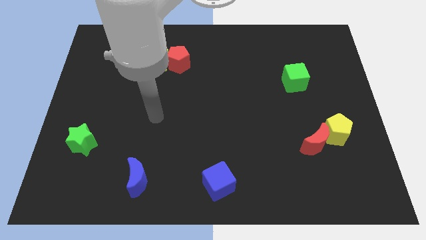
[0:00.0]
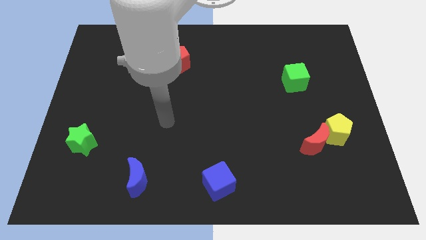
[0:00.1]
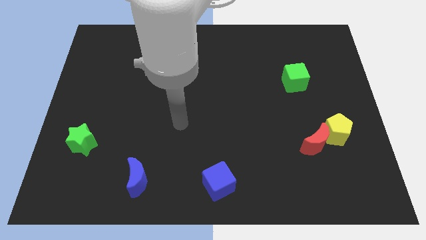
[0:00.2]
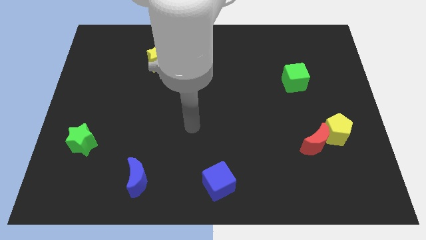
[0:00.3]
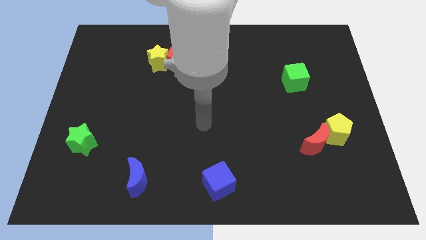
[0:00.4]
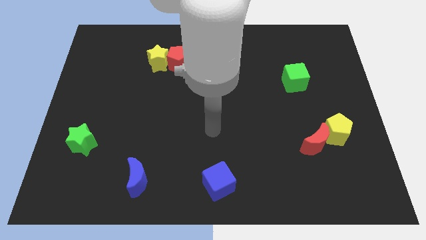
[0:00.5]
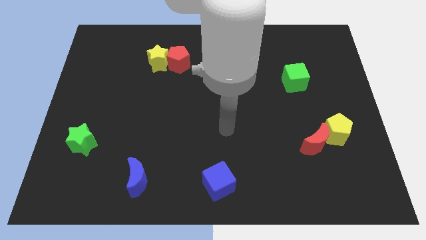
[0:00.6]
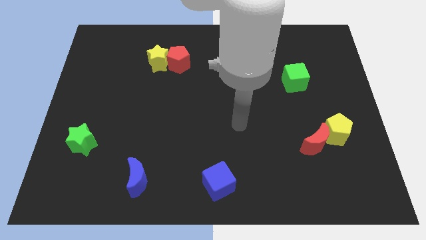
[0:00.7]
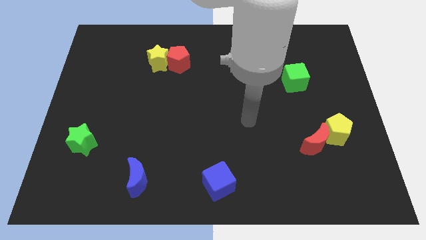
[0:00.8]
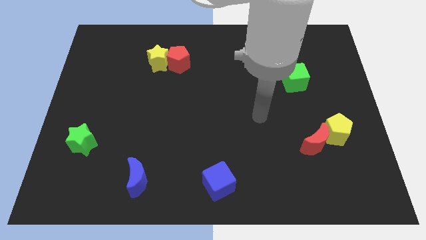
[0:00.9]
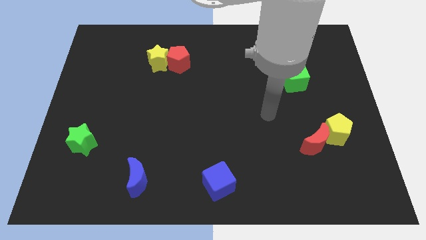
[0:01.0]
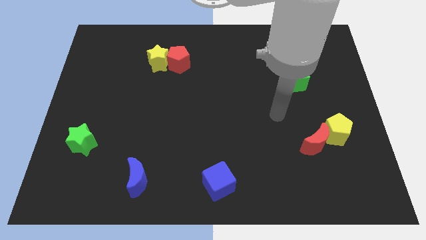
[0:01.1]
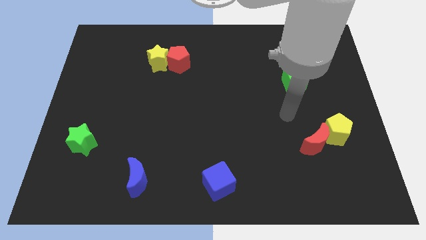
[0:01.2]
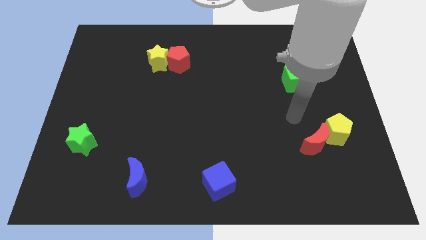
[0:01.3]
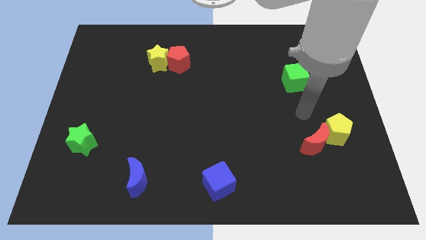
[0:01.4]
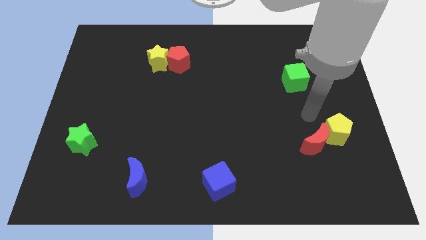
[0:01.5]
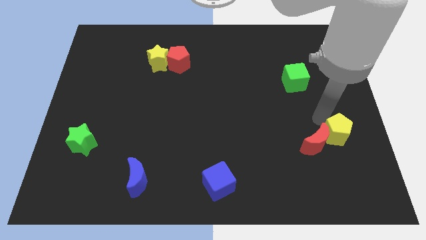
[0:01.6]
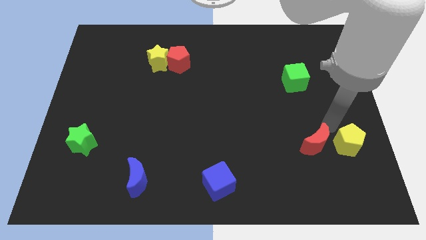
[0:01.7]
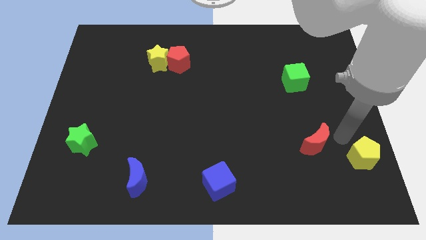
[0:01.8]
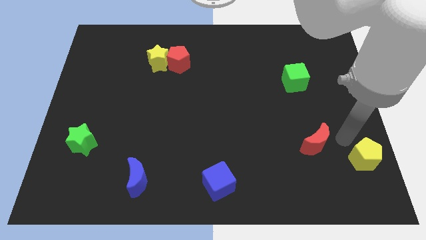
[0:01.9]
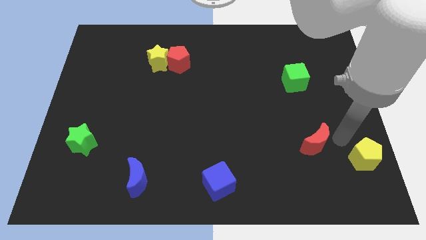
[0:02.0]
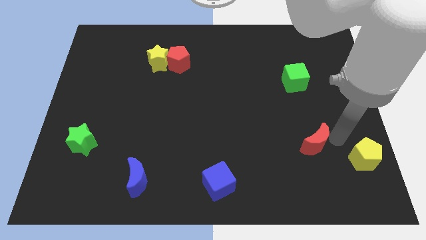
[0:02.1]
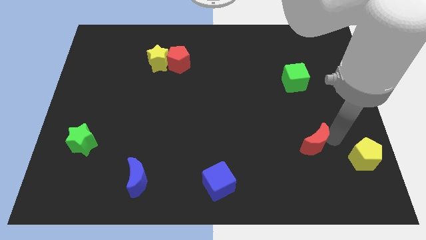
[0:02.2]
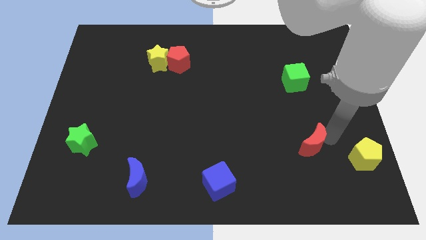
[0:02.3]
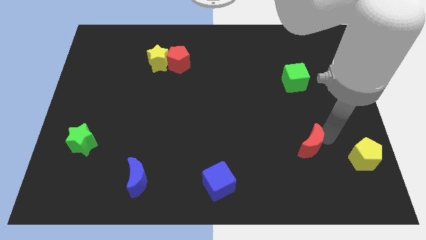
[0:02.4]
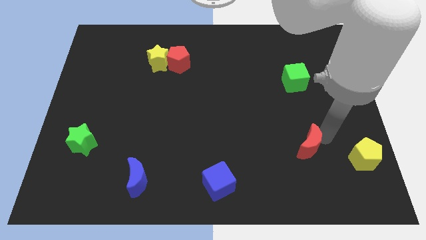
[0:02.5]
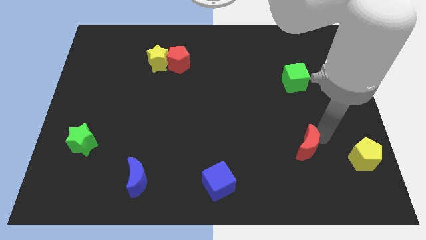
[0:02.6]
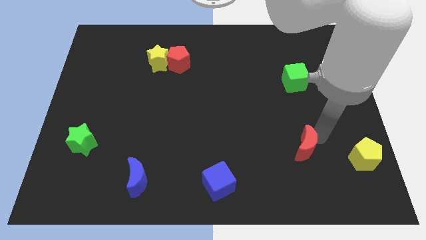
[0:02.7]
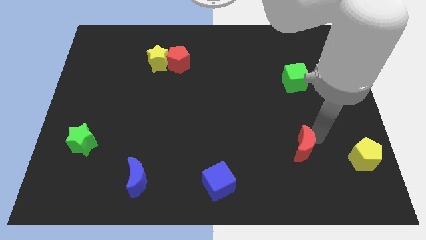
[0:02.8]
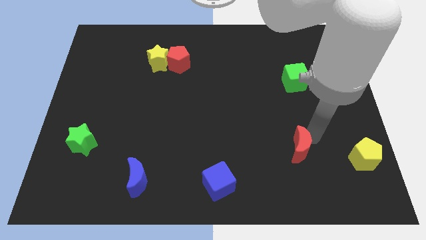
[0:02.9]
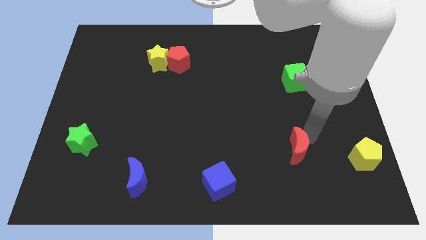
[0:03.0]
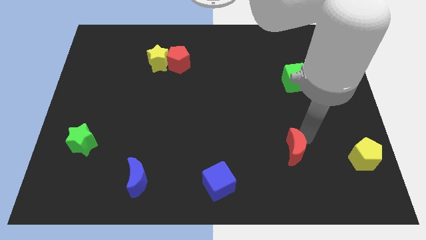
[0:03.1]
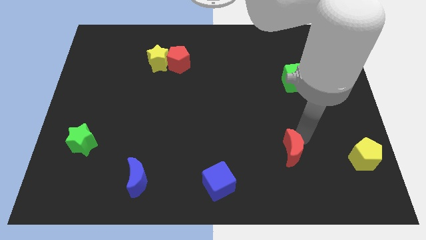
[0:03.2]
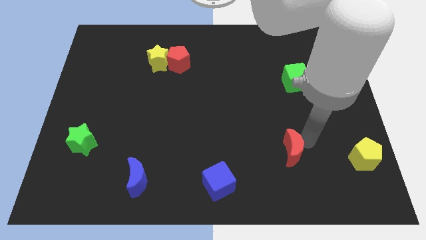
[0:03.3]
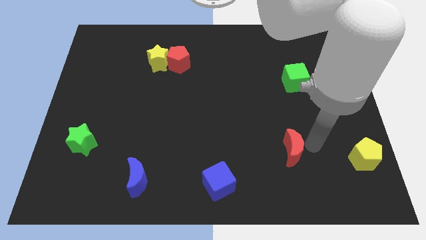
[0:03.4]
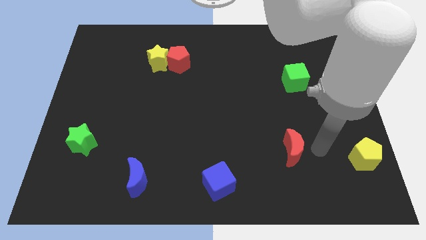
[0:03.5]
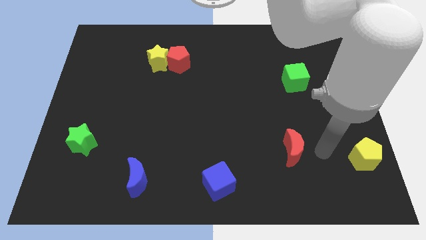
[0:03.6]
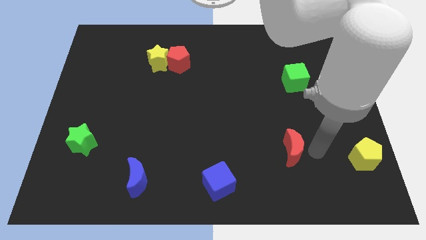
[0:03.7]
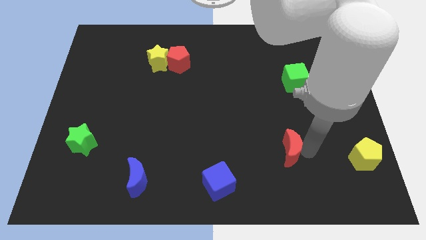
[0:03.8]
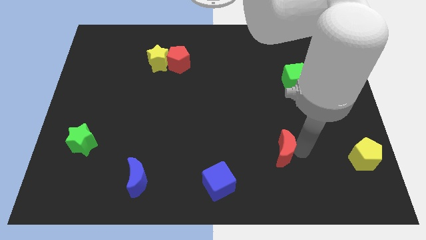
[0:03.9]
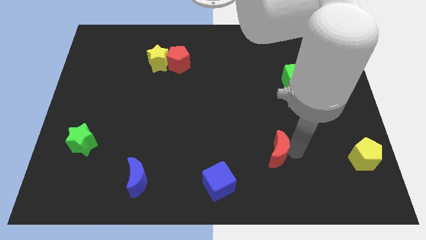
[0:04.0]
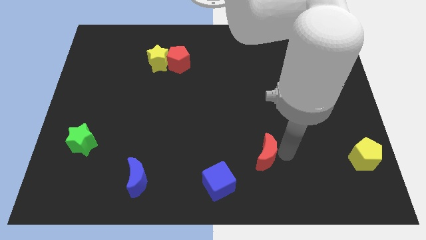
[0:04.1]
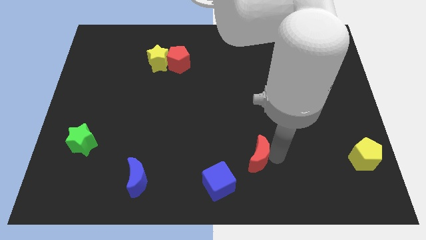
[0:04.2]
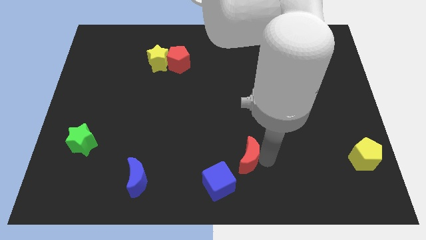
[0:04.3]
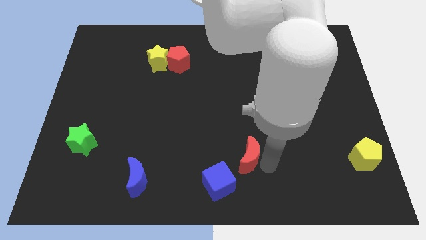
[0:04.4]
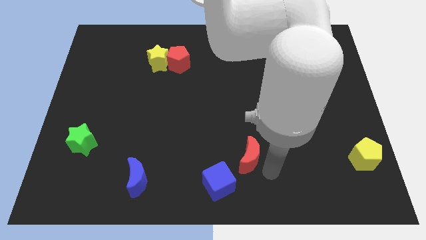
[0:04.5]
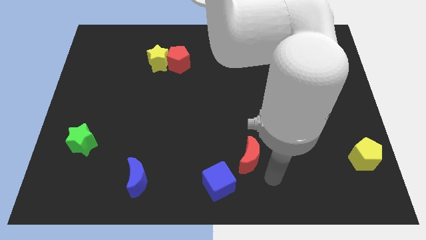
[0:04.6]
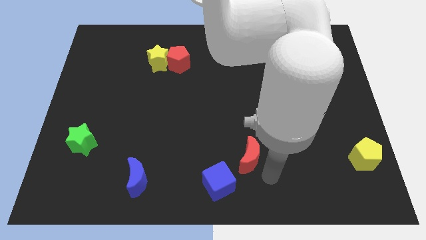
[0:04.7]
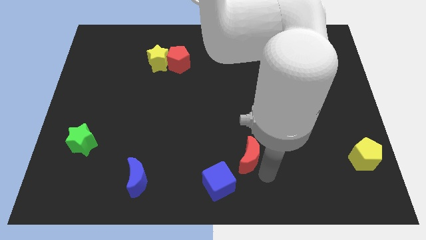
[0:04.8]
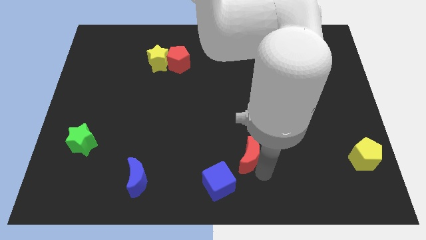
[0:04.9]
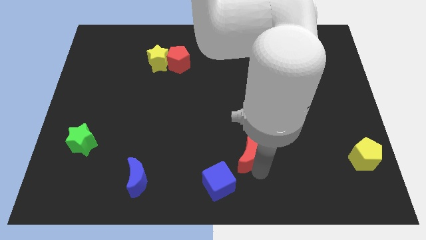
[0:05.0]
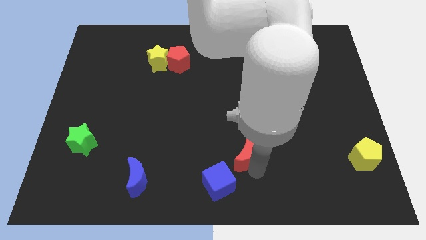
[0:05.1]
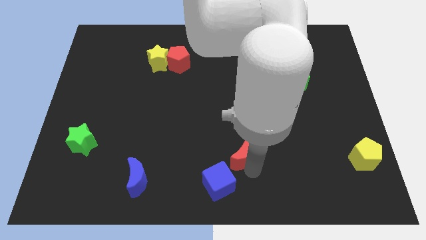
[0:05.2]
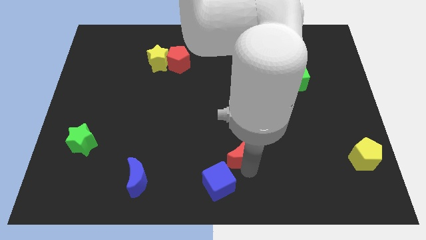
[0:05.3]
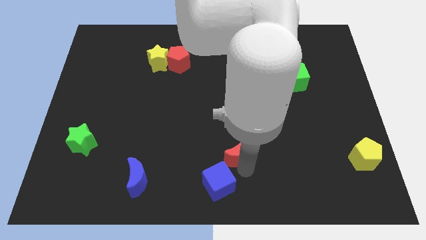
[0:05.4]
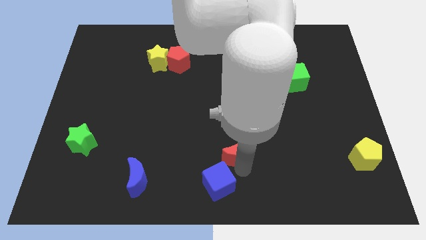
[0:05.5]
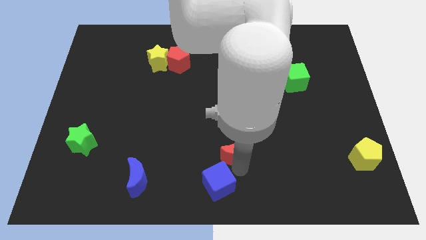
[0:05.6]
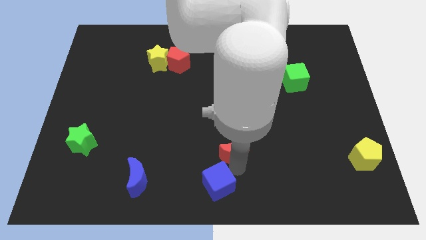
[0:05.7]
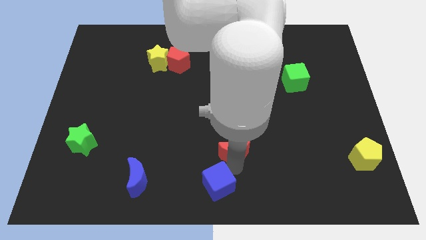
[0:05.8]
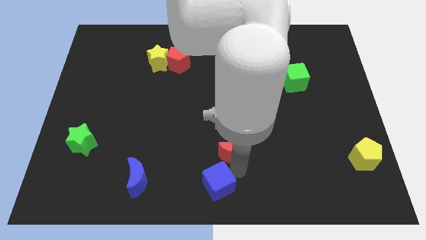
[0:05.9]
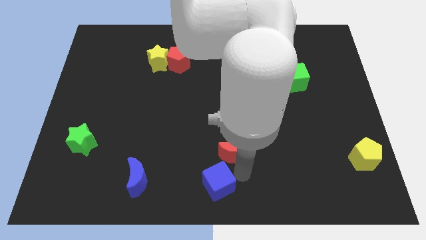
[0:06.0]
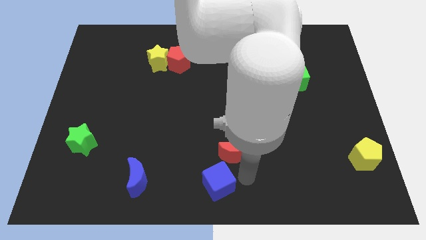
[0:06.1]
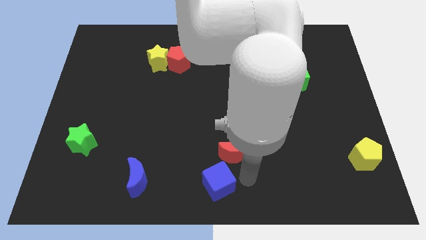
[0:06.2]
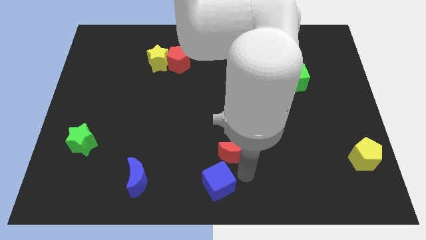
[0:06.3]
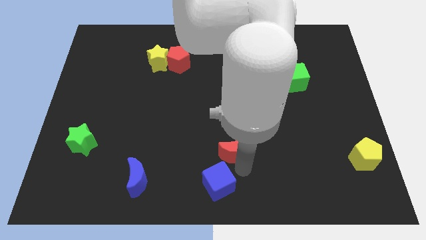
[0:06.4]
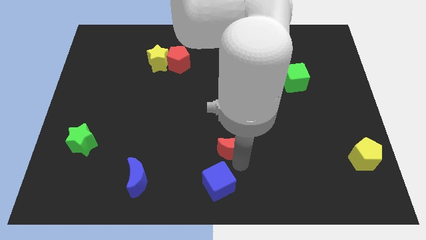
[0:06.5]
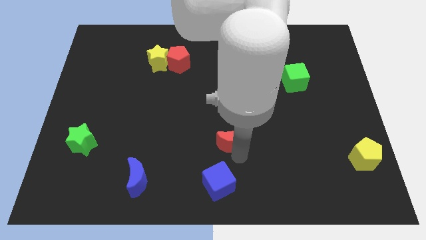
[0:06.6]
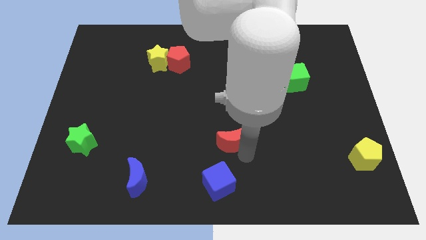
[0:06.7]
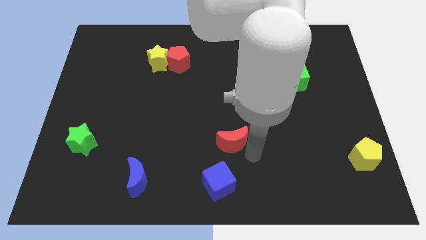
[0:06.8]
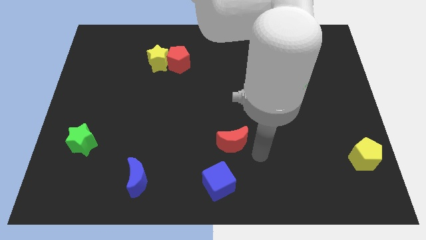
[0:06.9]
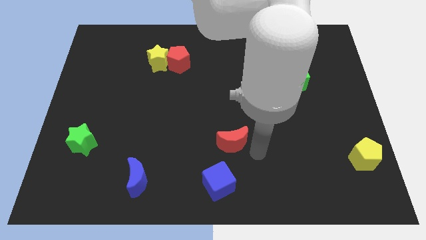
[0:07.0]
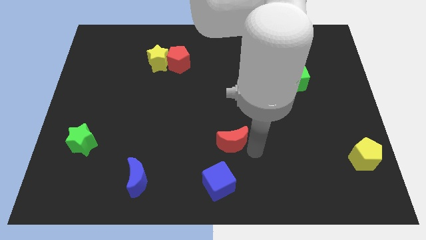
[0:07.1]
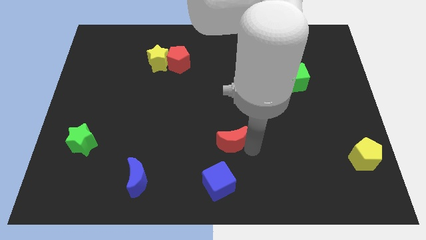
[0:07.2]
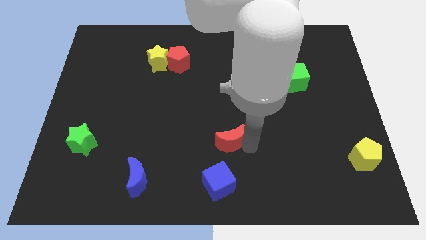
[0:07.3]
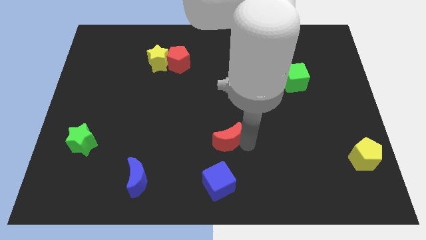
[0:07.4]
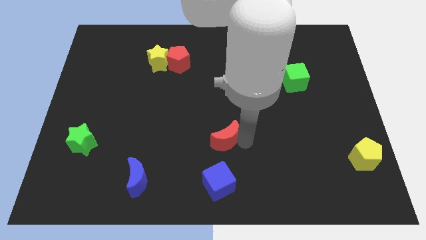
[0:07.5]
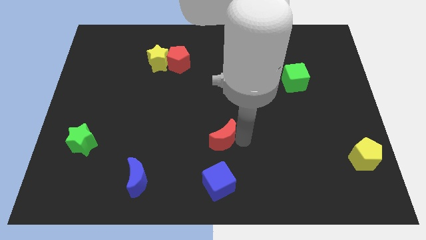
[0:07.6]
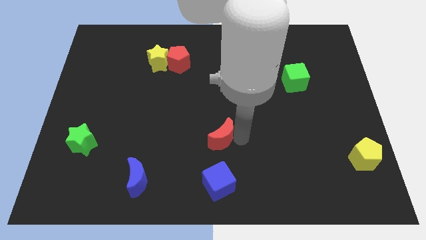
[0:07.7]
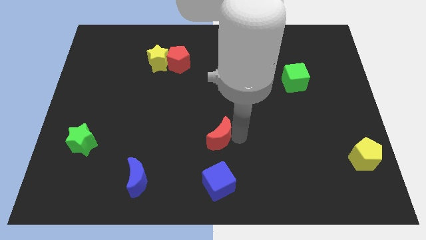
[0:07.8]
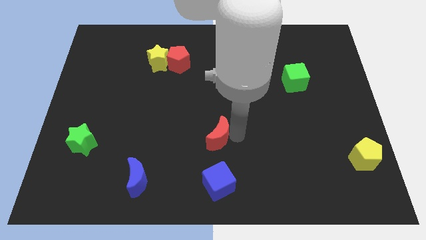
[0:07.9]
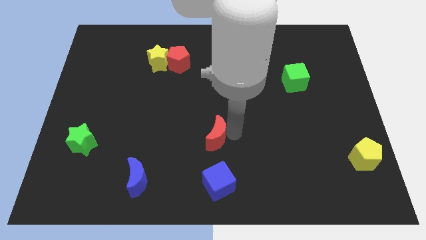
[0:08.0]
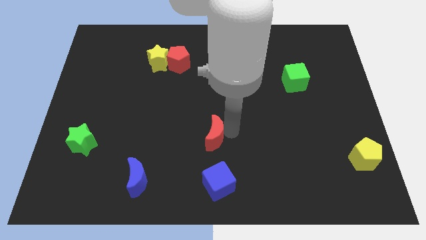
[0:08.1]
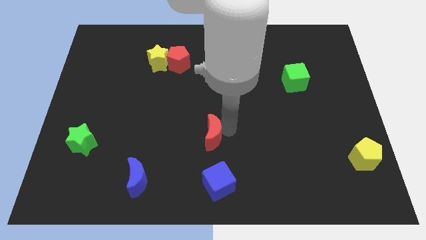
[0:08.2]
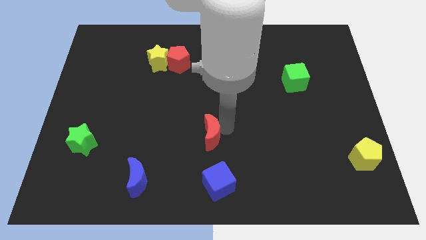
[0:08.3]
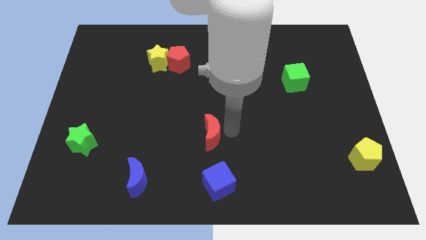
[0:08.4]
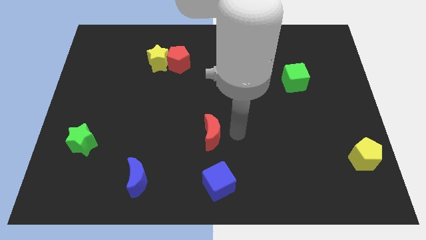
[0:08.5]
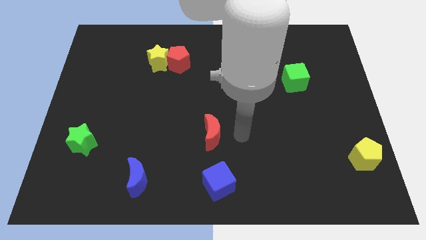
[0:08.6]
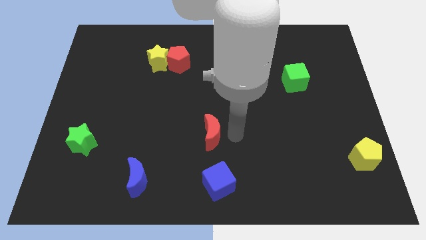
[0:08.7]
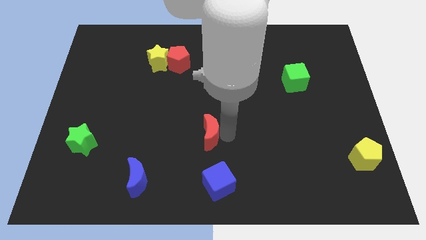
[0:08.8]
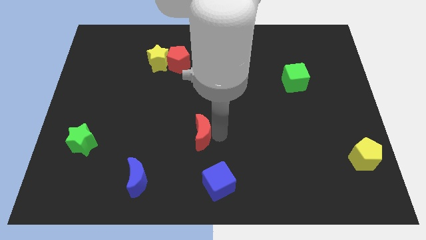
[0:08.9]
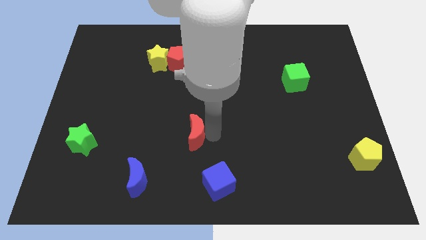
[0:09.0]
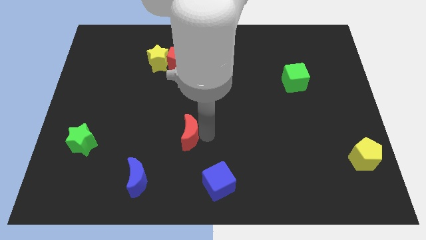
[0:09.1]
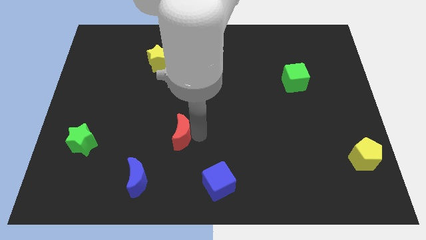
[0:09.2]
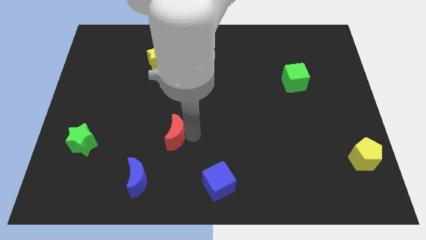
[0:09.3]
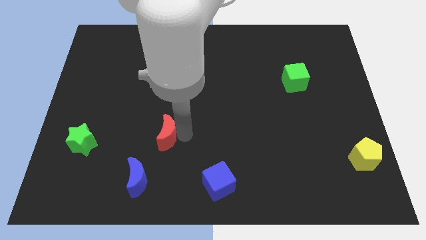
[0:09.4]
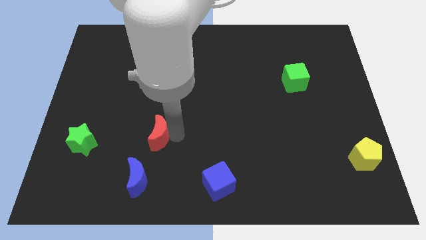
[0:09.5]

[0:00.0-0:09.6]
push the red moon above the blue moon
